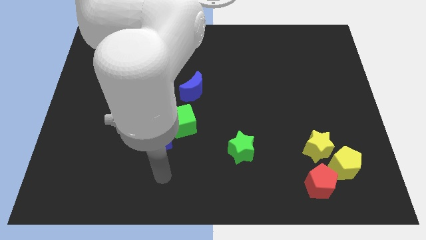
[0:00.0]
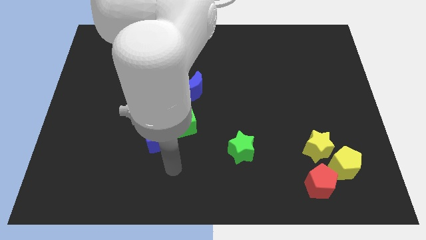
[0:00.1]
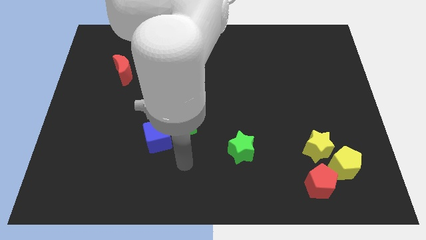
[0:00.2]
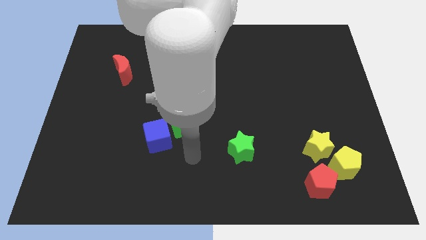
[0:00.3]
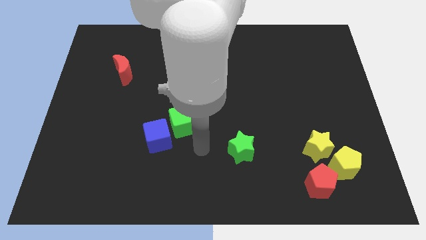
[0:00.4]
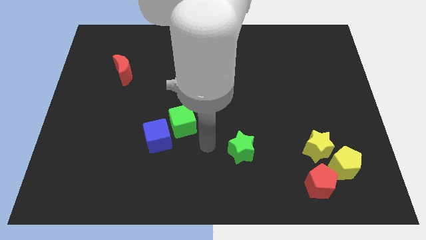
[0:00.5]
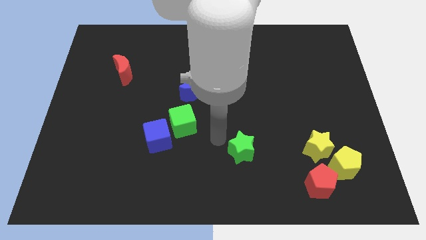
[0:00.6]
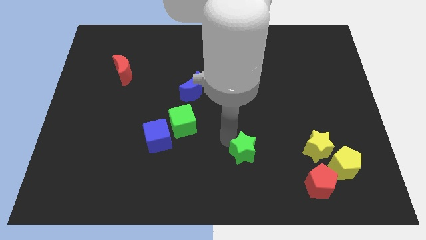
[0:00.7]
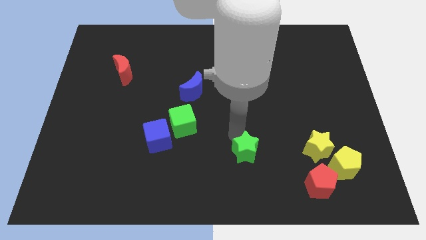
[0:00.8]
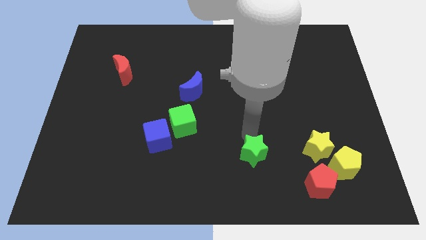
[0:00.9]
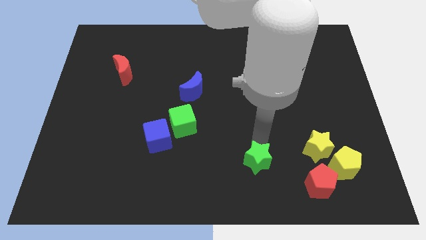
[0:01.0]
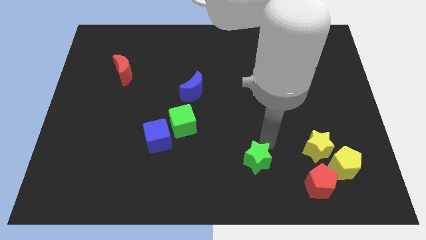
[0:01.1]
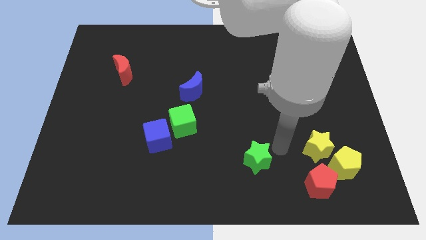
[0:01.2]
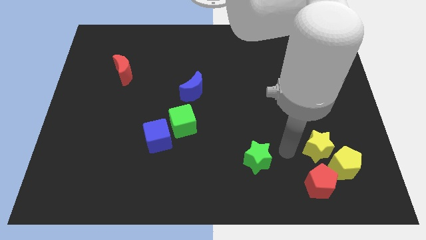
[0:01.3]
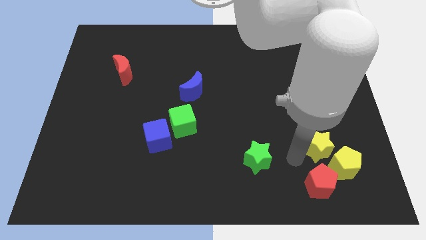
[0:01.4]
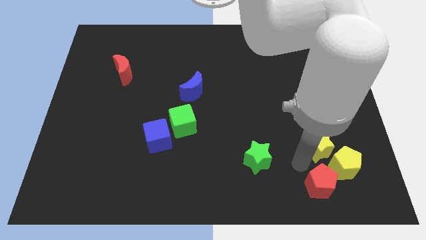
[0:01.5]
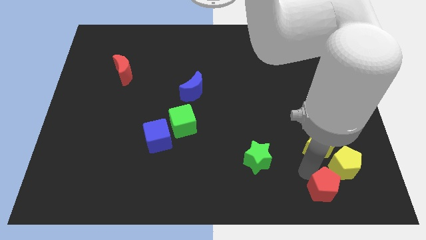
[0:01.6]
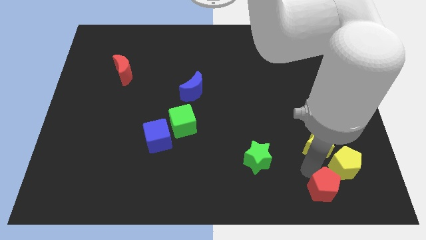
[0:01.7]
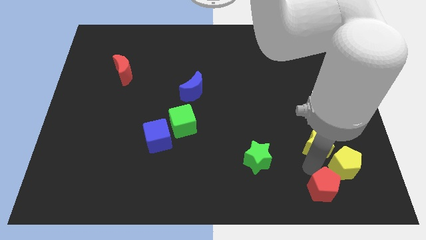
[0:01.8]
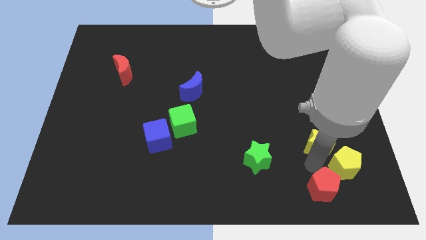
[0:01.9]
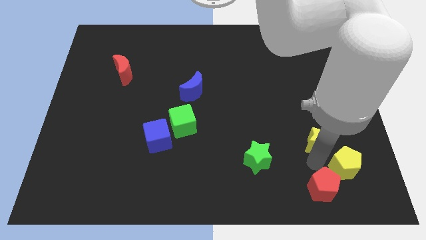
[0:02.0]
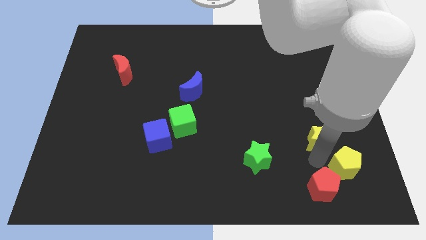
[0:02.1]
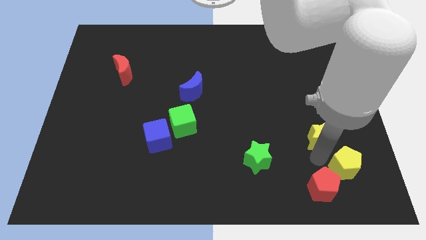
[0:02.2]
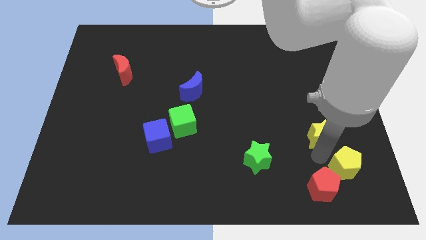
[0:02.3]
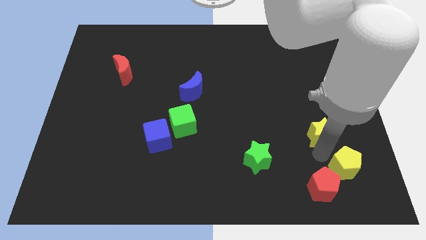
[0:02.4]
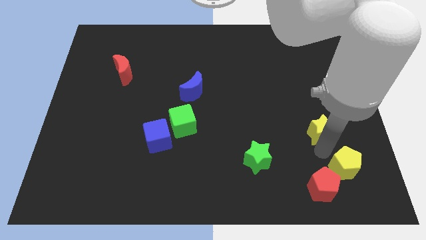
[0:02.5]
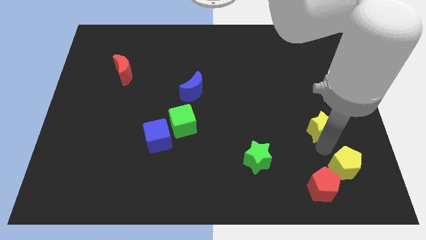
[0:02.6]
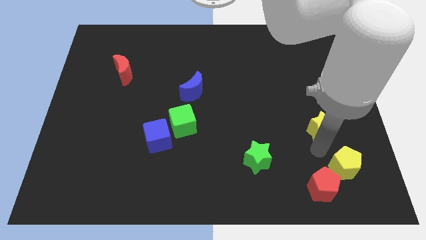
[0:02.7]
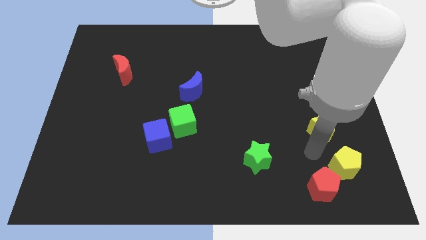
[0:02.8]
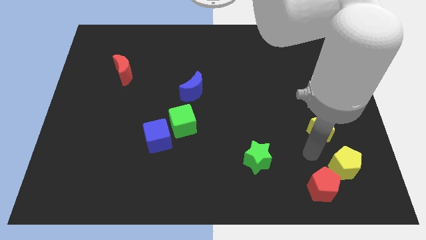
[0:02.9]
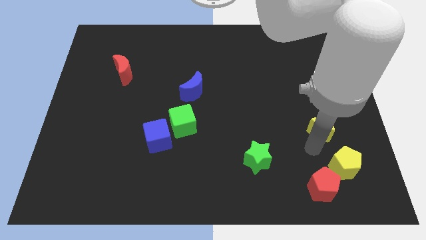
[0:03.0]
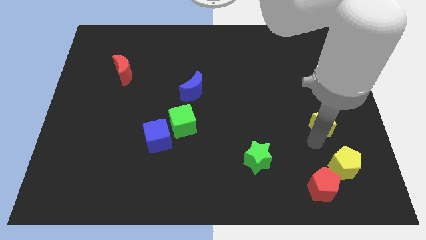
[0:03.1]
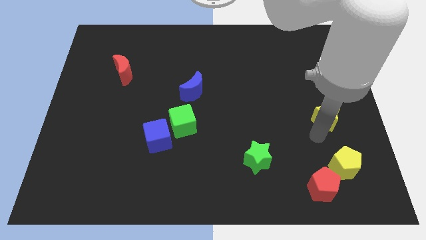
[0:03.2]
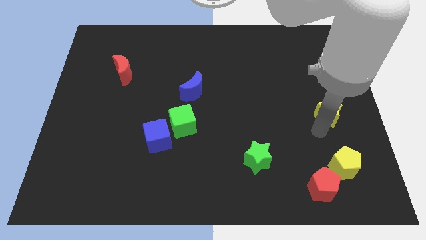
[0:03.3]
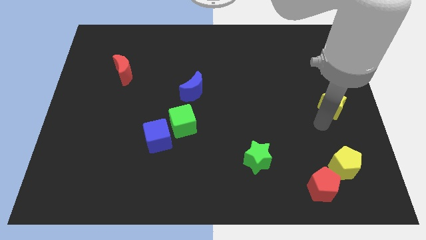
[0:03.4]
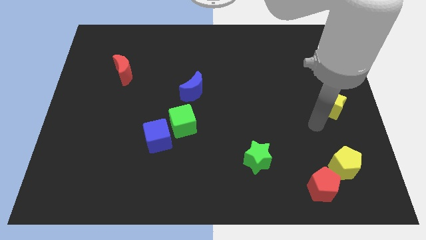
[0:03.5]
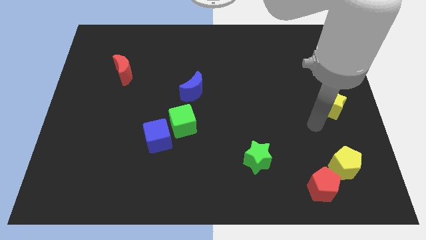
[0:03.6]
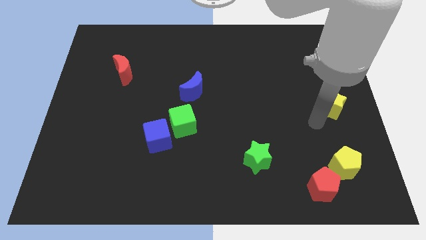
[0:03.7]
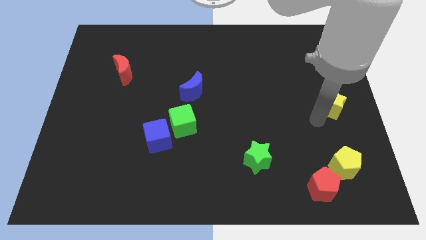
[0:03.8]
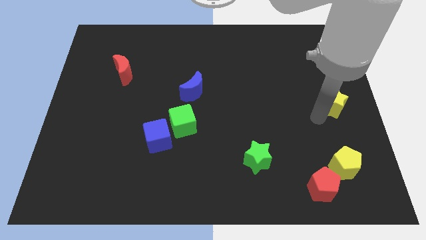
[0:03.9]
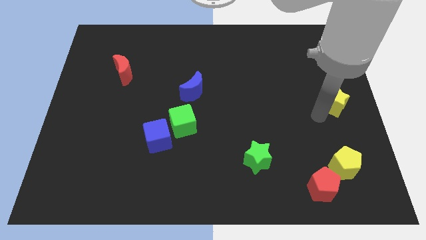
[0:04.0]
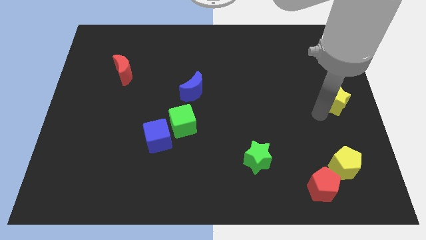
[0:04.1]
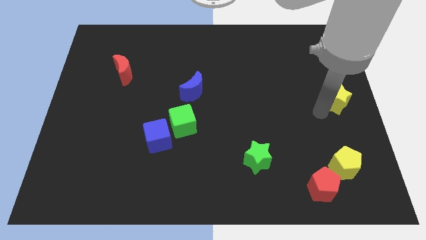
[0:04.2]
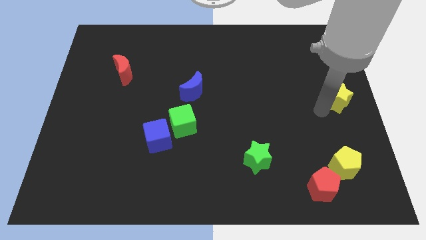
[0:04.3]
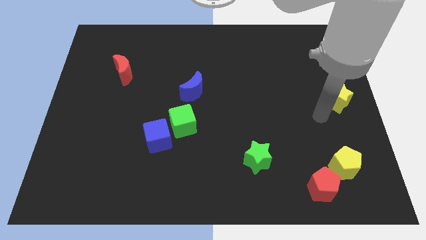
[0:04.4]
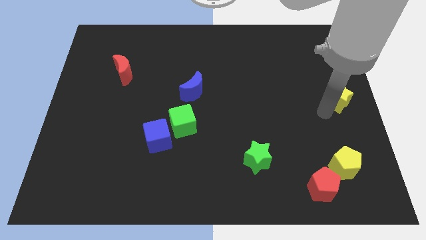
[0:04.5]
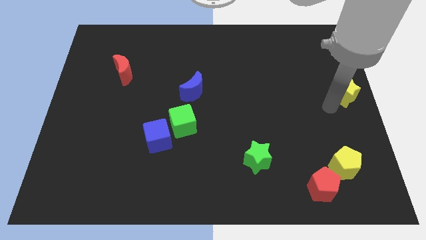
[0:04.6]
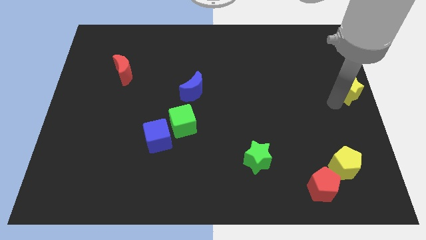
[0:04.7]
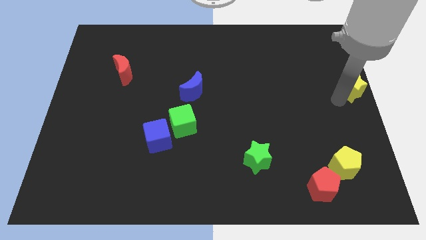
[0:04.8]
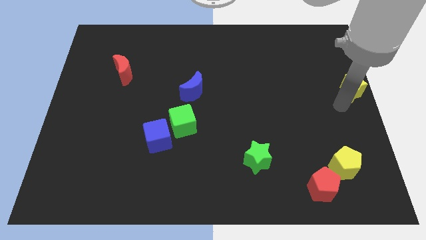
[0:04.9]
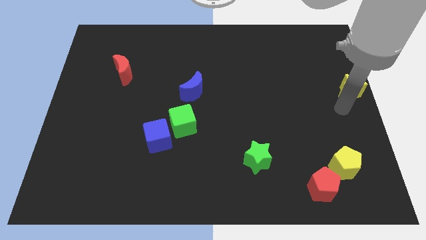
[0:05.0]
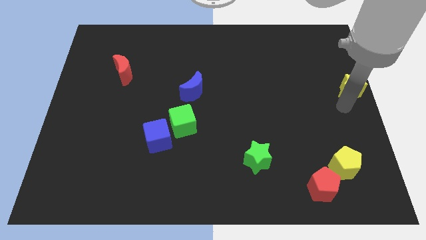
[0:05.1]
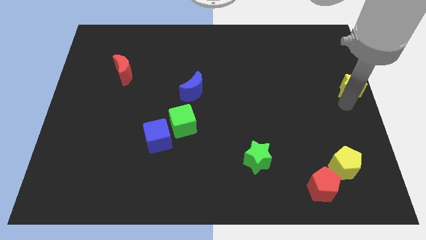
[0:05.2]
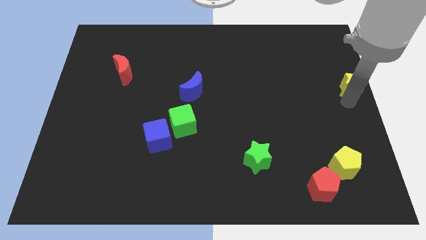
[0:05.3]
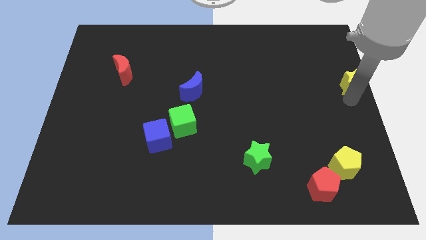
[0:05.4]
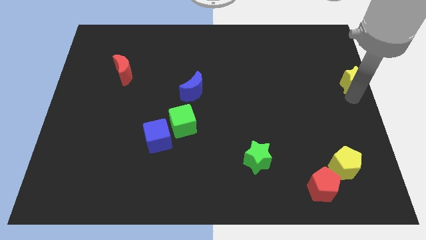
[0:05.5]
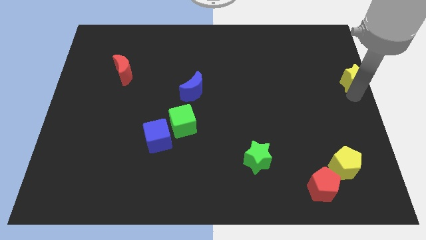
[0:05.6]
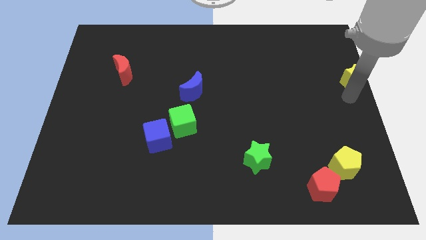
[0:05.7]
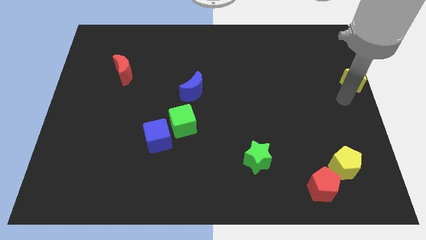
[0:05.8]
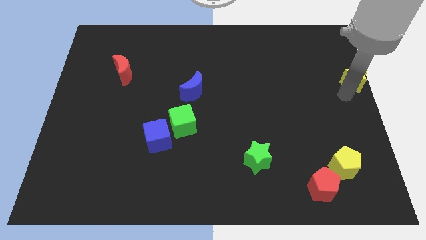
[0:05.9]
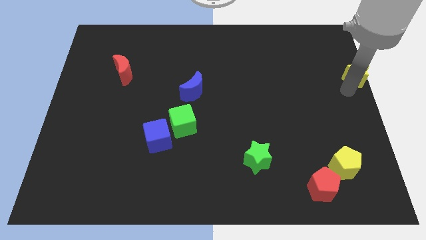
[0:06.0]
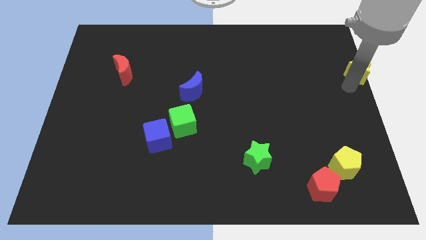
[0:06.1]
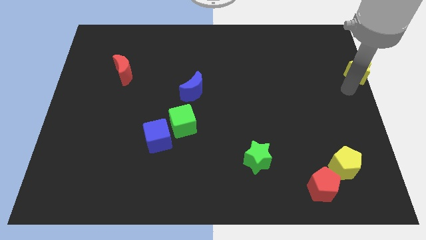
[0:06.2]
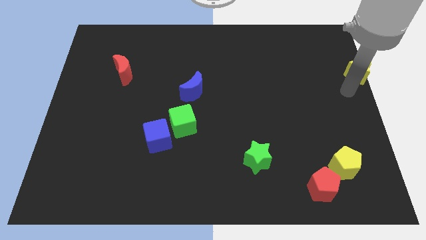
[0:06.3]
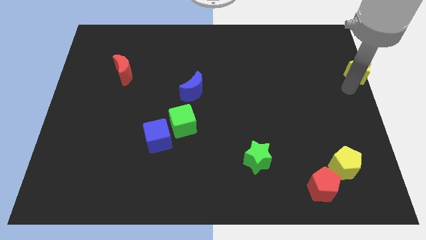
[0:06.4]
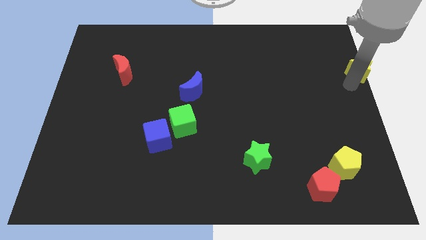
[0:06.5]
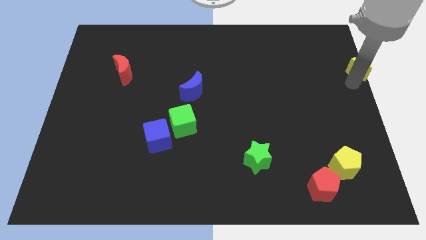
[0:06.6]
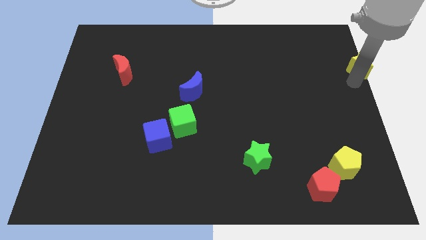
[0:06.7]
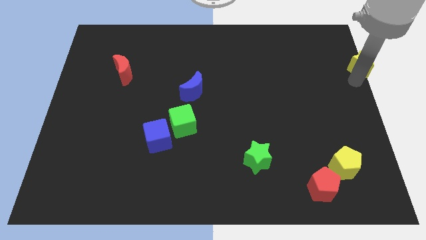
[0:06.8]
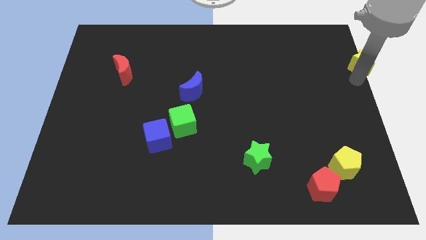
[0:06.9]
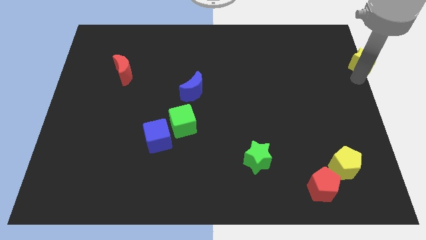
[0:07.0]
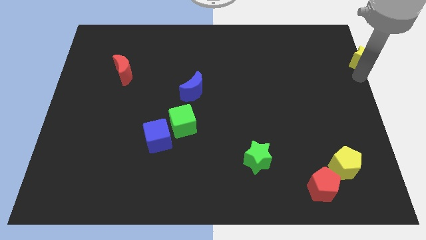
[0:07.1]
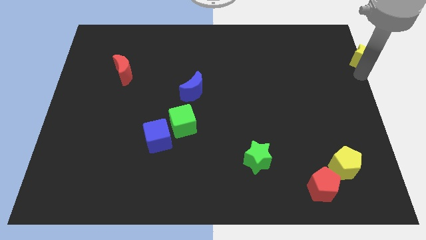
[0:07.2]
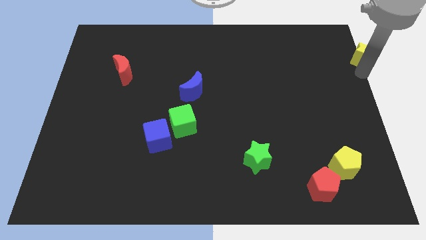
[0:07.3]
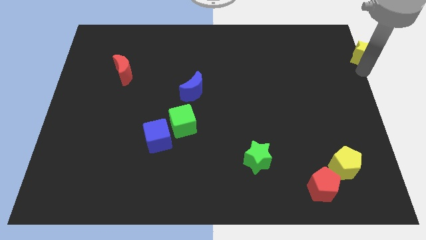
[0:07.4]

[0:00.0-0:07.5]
move the yellow star to the top right of the board
